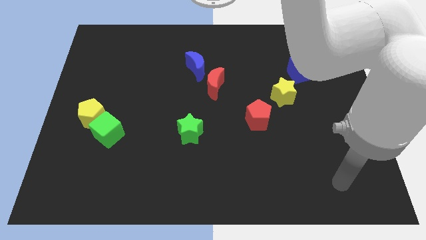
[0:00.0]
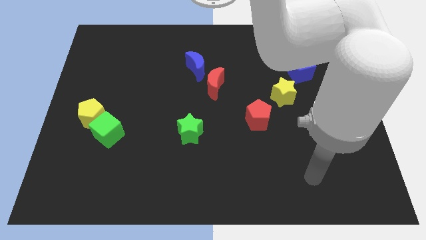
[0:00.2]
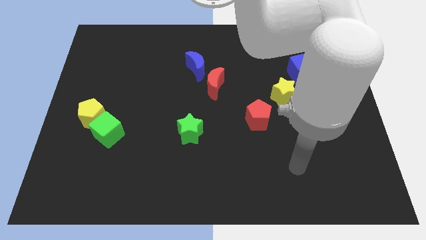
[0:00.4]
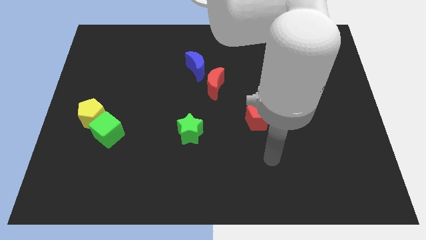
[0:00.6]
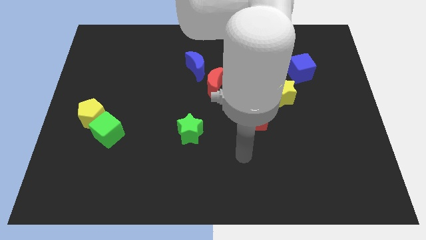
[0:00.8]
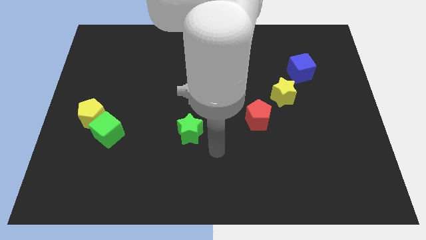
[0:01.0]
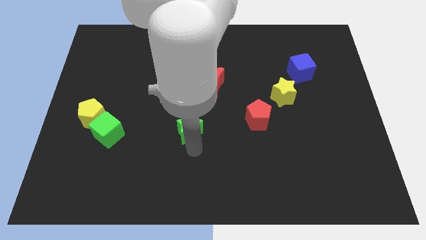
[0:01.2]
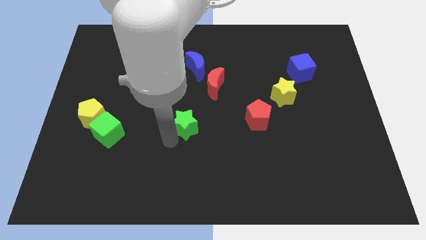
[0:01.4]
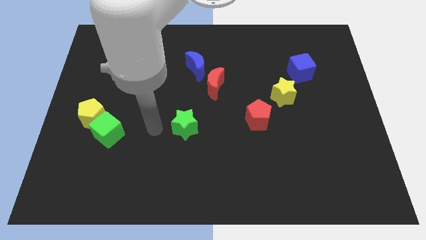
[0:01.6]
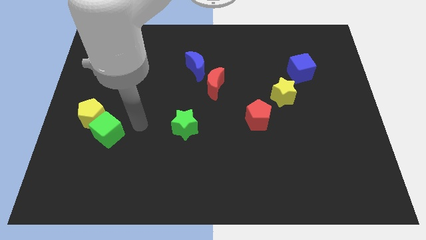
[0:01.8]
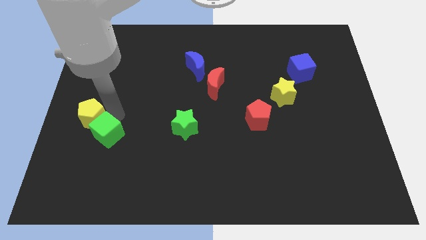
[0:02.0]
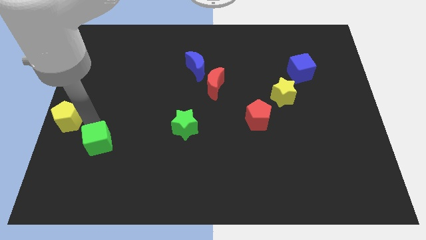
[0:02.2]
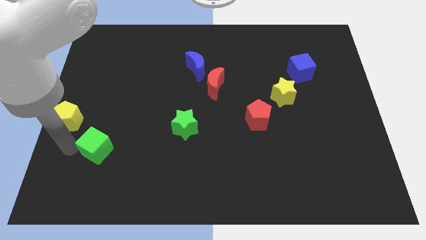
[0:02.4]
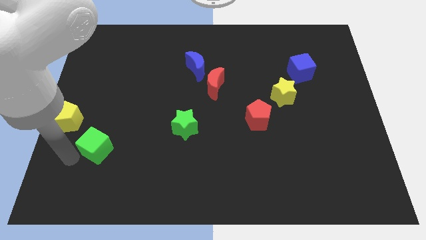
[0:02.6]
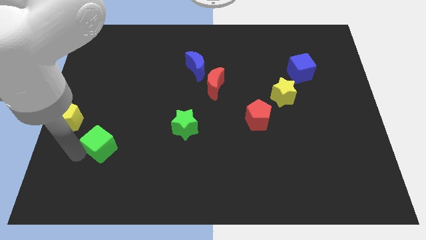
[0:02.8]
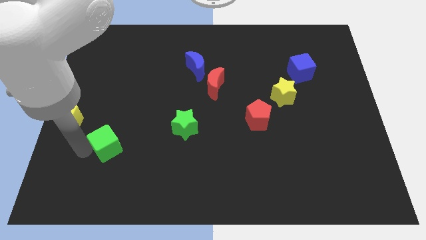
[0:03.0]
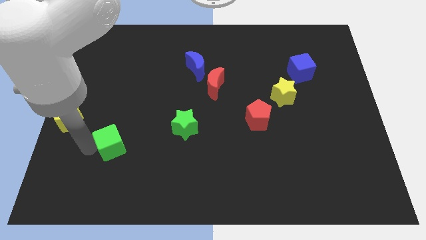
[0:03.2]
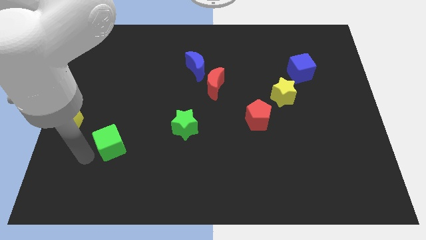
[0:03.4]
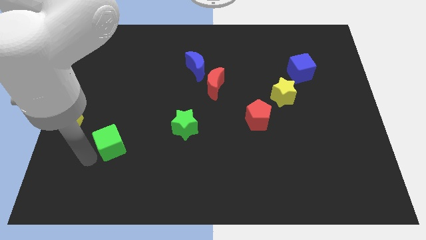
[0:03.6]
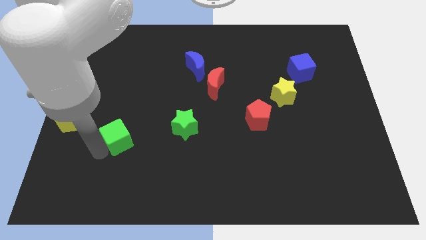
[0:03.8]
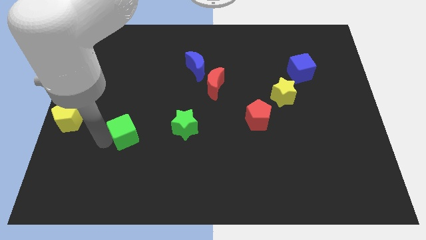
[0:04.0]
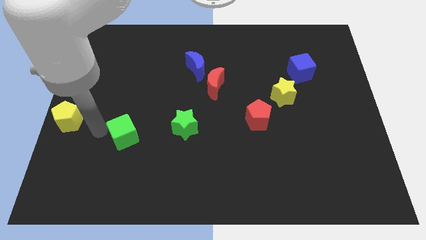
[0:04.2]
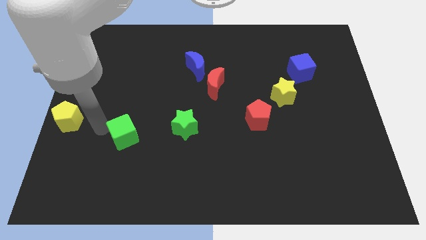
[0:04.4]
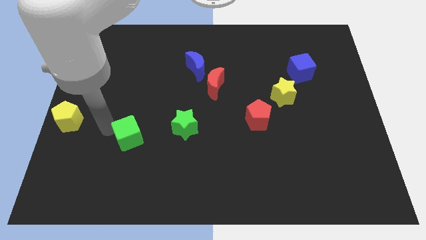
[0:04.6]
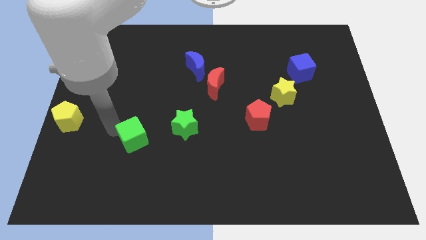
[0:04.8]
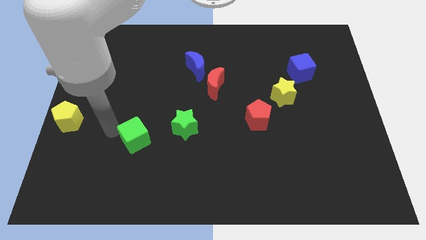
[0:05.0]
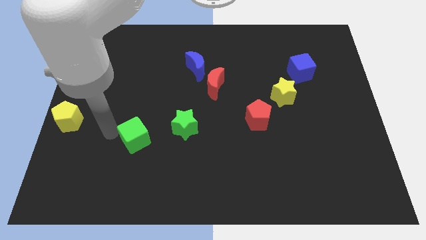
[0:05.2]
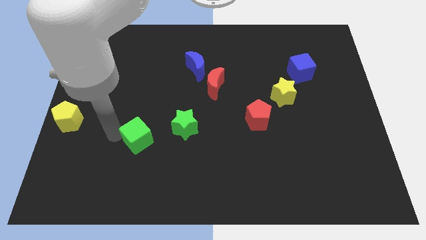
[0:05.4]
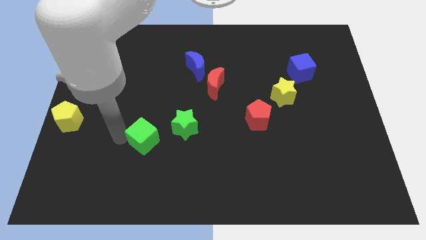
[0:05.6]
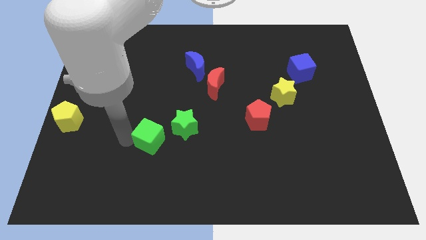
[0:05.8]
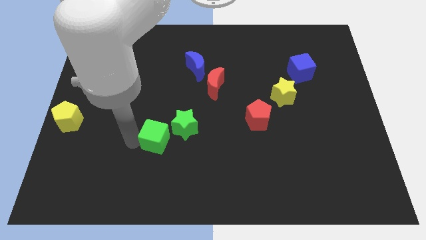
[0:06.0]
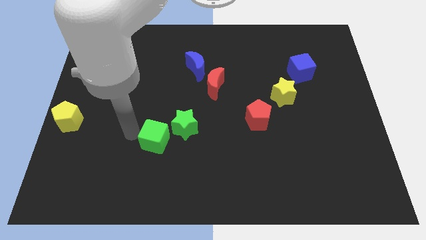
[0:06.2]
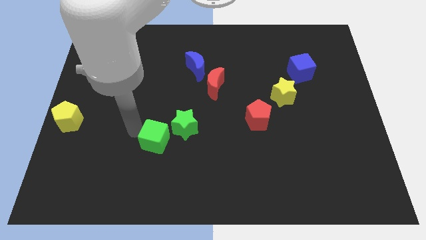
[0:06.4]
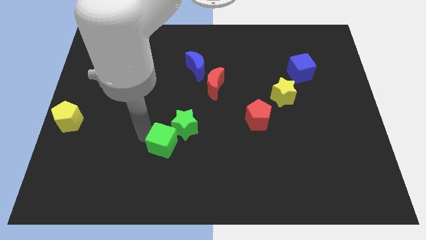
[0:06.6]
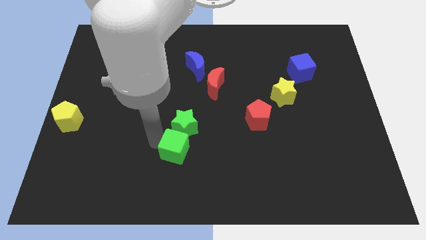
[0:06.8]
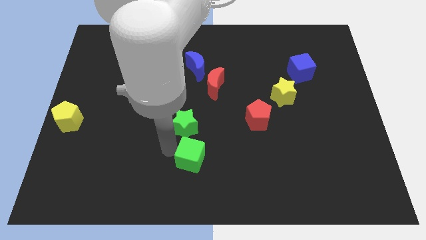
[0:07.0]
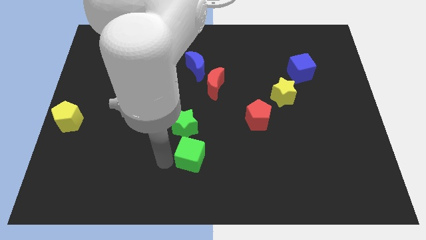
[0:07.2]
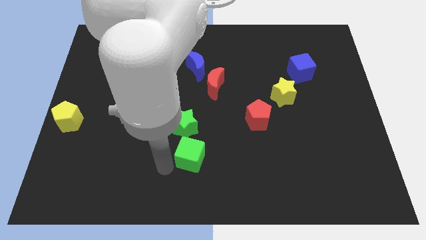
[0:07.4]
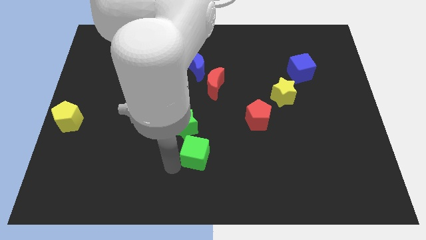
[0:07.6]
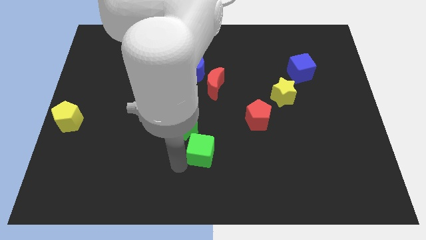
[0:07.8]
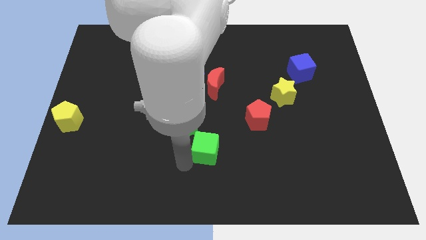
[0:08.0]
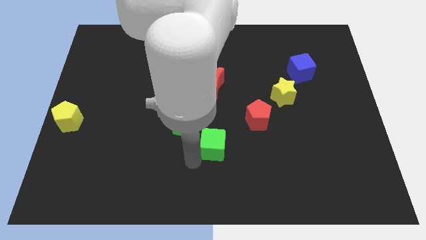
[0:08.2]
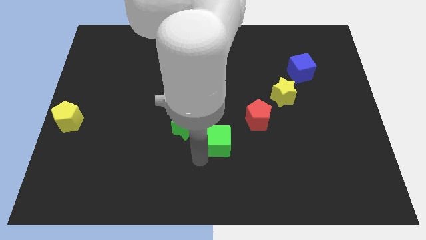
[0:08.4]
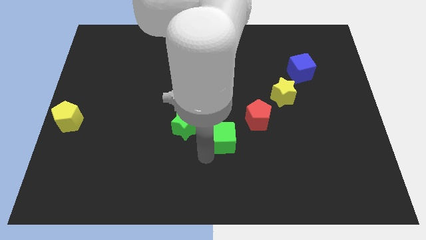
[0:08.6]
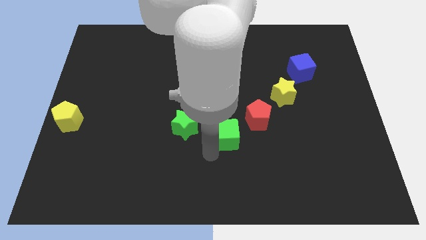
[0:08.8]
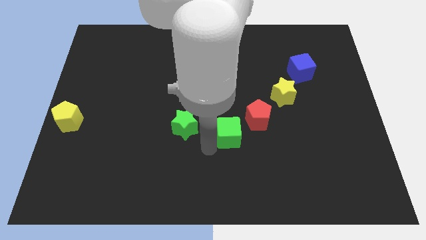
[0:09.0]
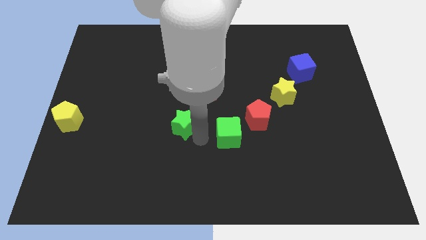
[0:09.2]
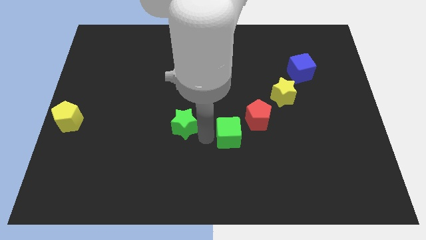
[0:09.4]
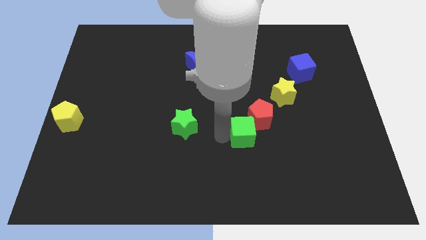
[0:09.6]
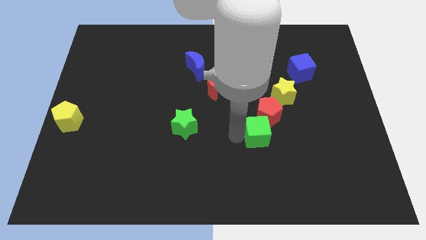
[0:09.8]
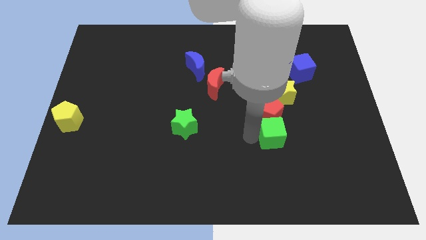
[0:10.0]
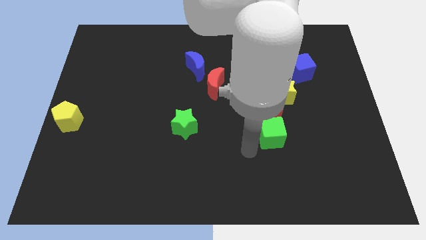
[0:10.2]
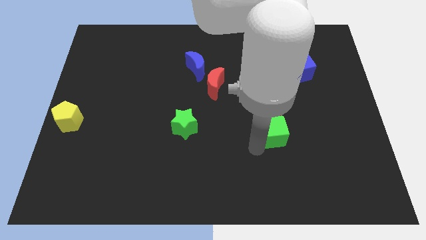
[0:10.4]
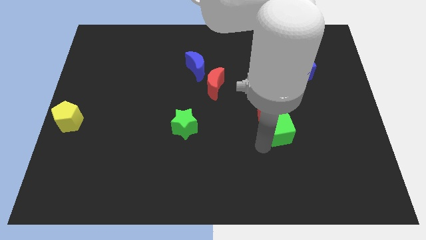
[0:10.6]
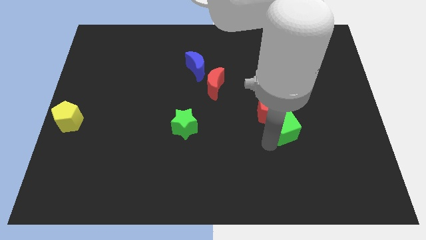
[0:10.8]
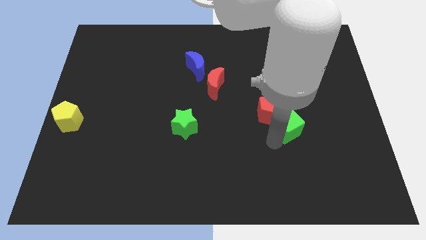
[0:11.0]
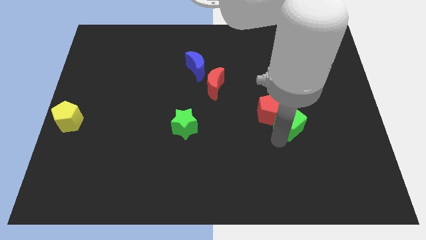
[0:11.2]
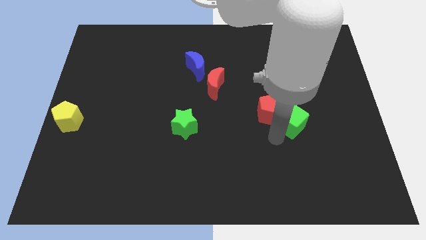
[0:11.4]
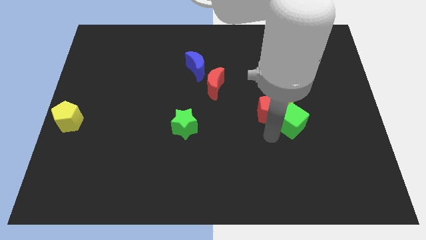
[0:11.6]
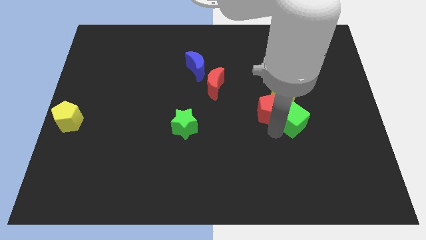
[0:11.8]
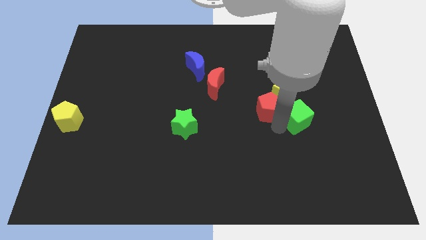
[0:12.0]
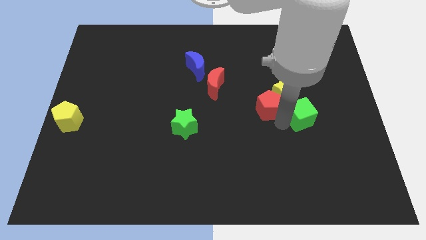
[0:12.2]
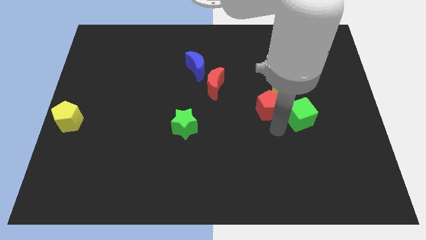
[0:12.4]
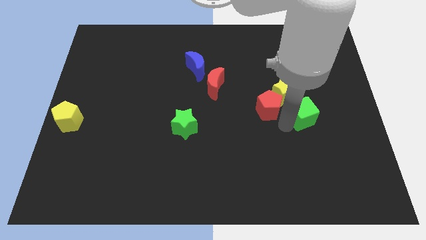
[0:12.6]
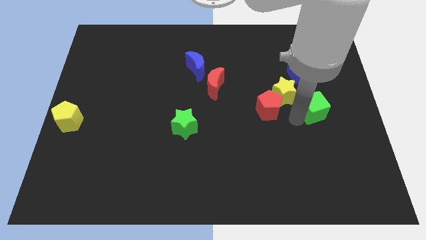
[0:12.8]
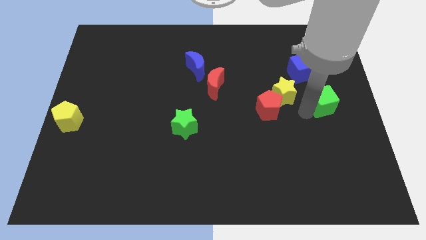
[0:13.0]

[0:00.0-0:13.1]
slide the green cube to the right side of the board
